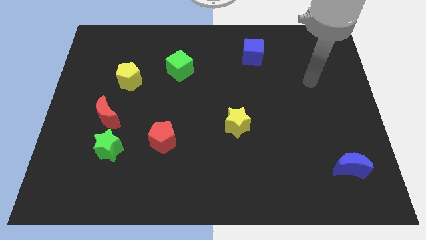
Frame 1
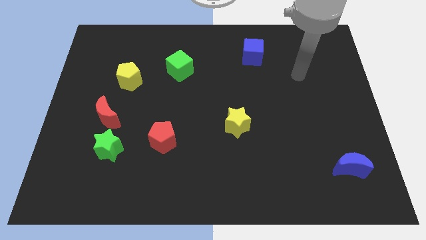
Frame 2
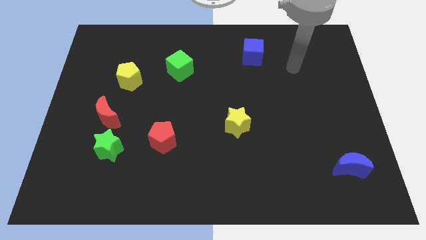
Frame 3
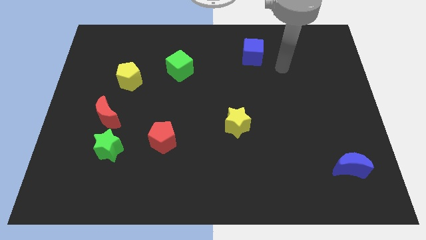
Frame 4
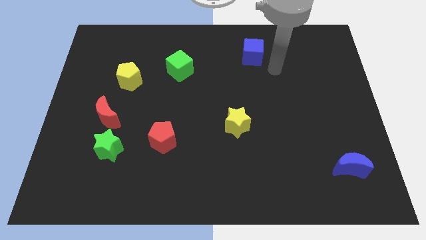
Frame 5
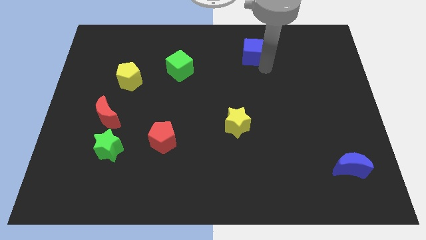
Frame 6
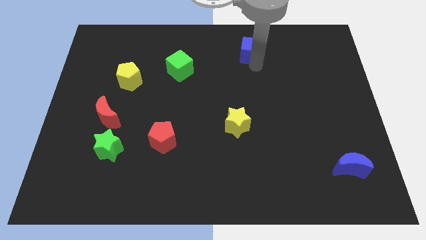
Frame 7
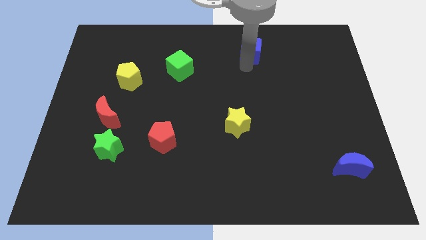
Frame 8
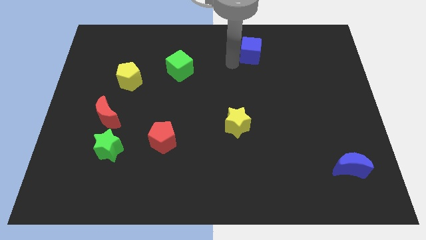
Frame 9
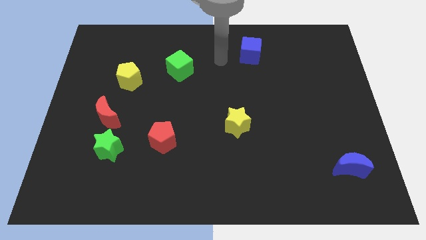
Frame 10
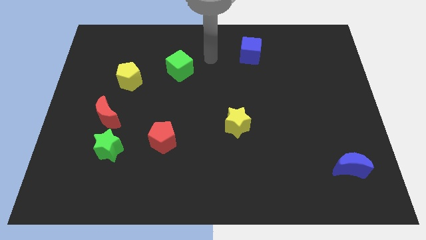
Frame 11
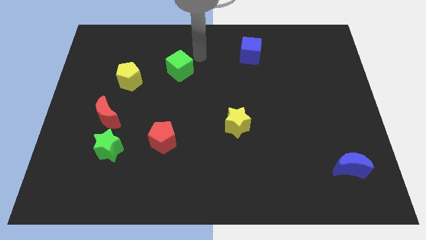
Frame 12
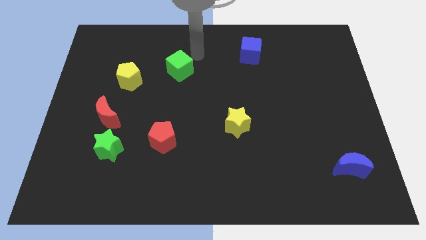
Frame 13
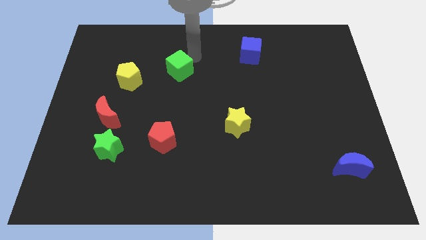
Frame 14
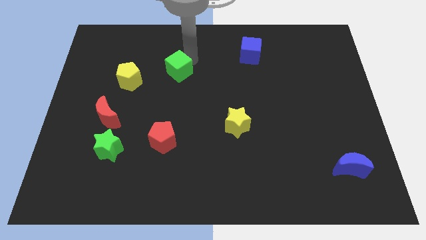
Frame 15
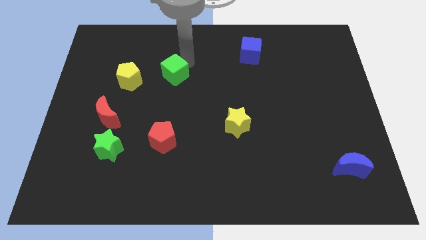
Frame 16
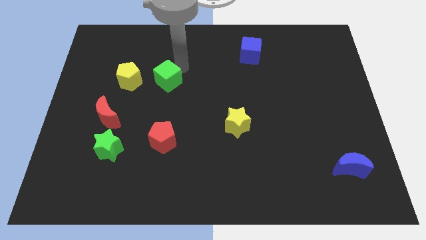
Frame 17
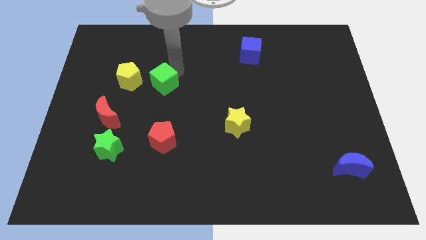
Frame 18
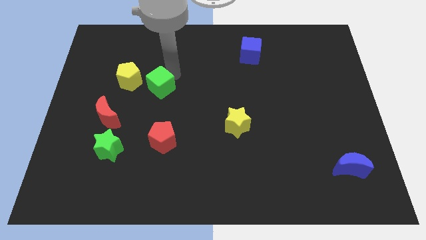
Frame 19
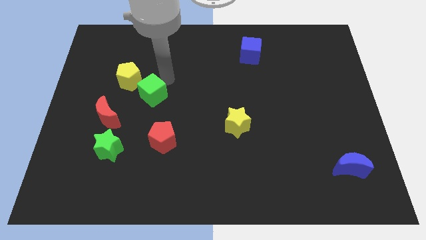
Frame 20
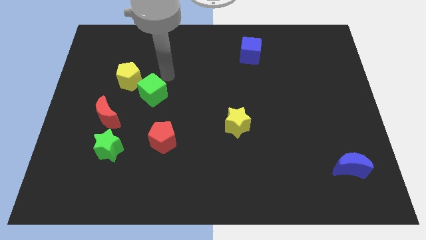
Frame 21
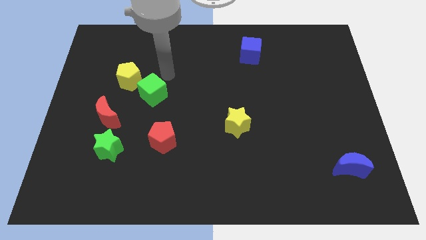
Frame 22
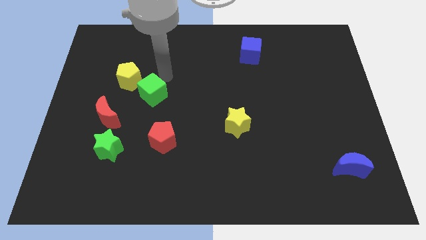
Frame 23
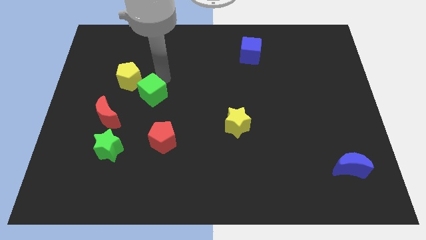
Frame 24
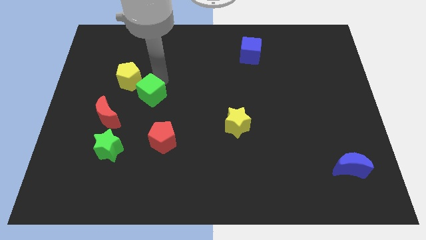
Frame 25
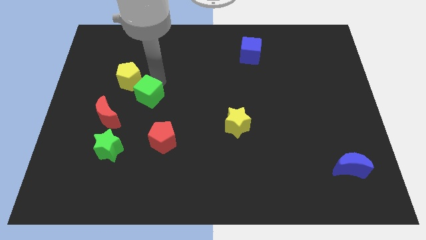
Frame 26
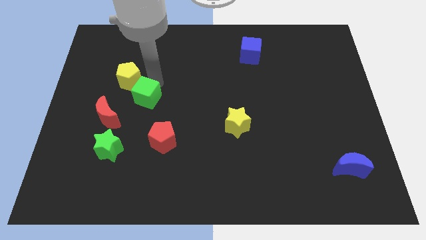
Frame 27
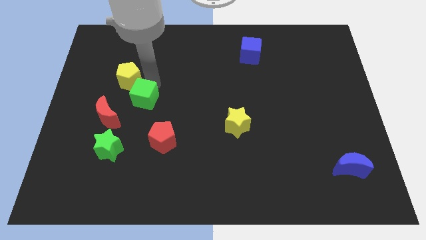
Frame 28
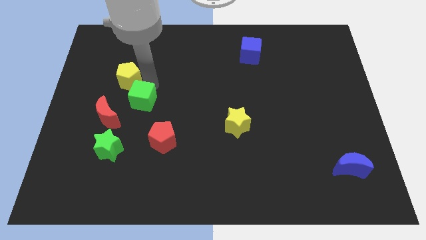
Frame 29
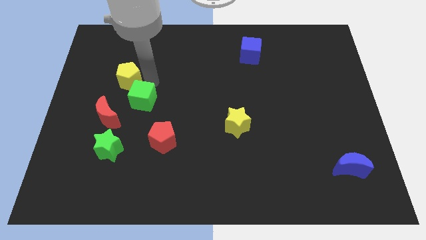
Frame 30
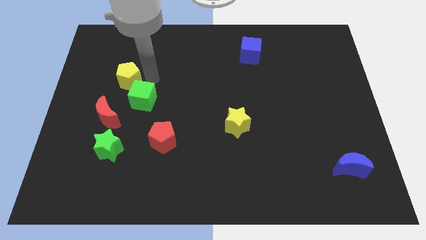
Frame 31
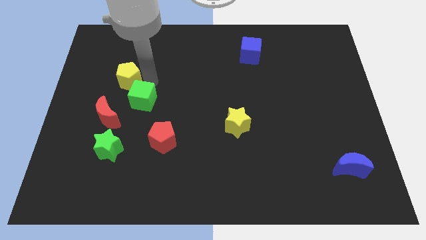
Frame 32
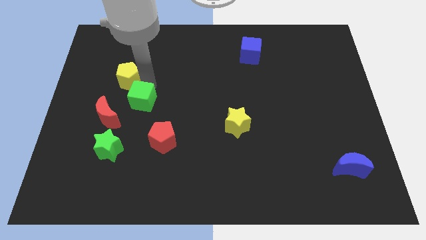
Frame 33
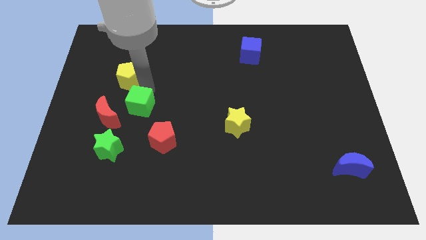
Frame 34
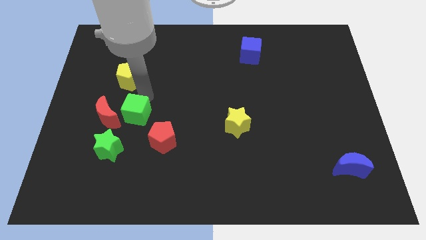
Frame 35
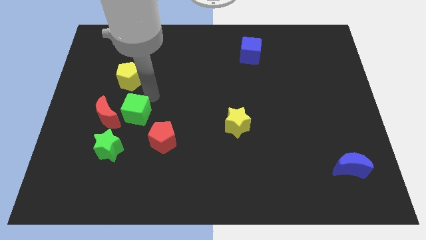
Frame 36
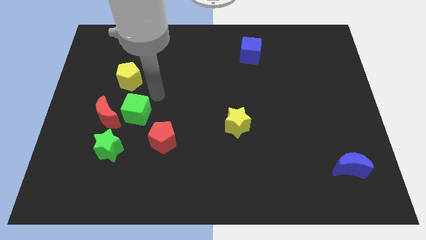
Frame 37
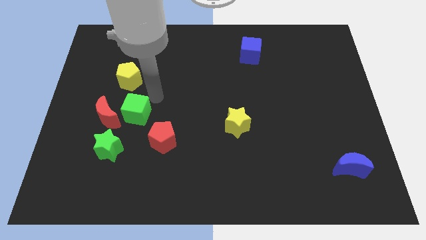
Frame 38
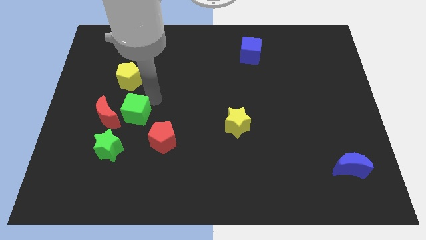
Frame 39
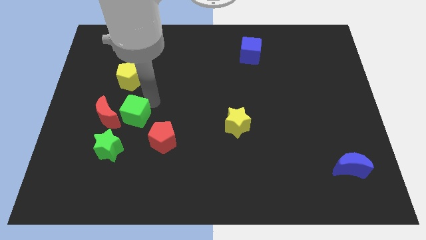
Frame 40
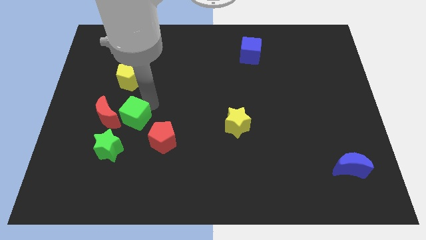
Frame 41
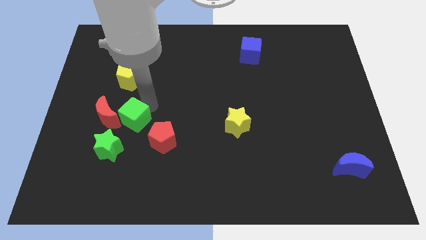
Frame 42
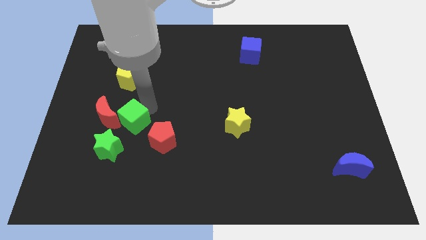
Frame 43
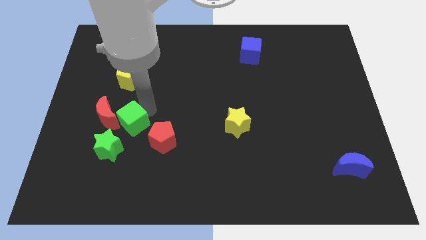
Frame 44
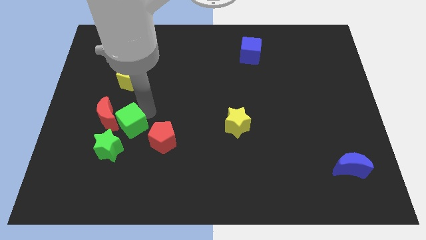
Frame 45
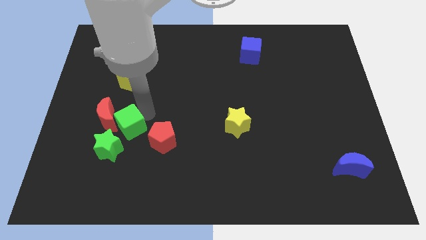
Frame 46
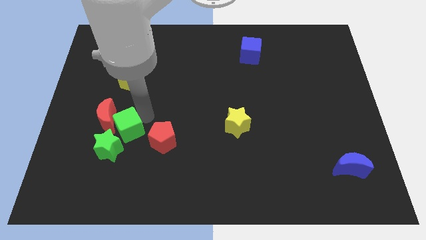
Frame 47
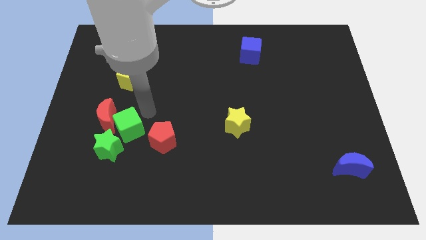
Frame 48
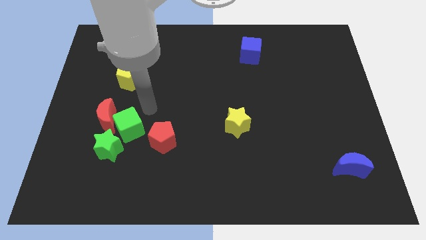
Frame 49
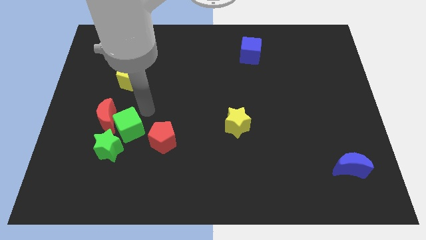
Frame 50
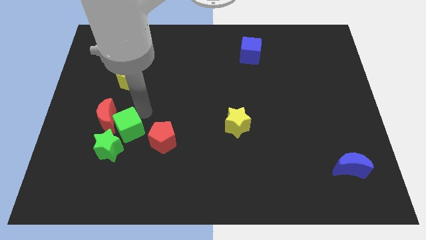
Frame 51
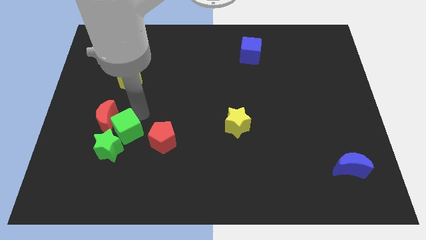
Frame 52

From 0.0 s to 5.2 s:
put the green cube to the green star

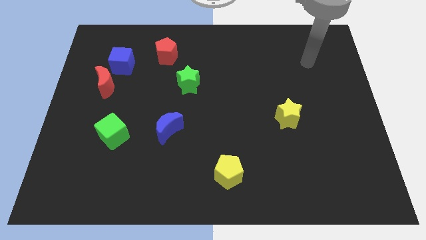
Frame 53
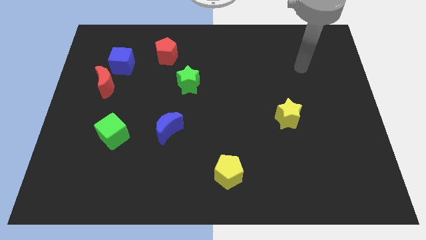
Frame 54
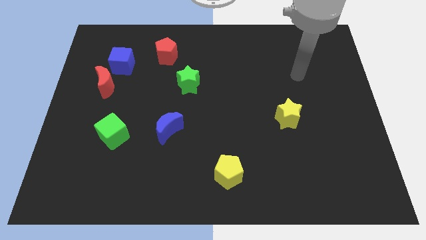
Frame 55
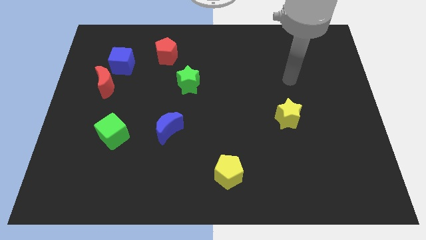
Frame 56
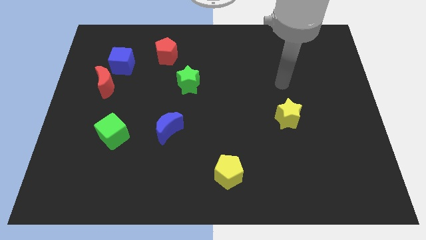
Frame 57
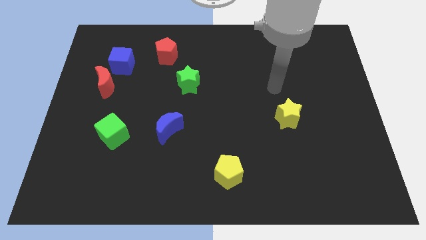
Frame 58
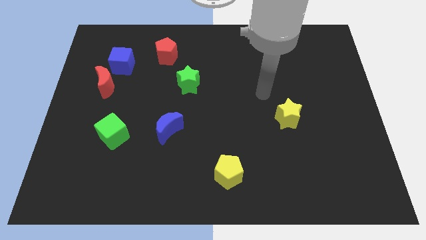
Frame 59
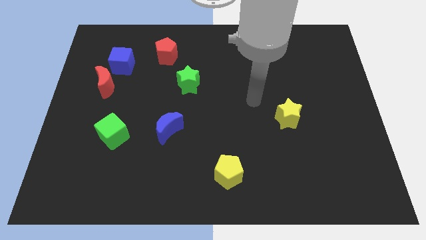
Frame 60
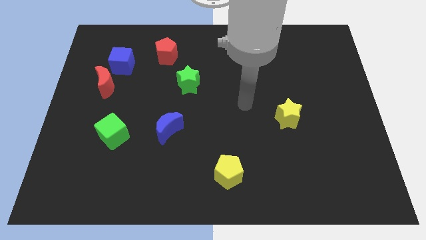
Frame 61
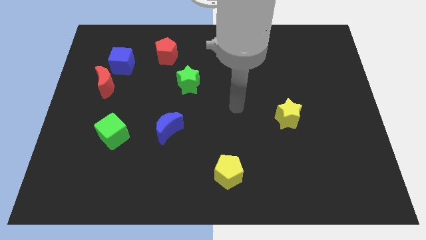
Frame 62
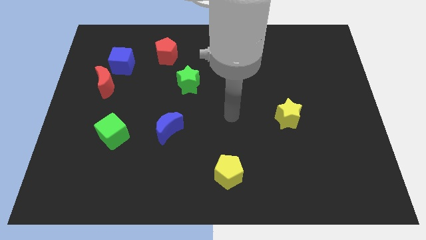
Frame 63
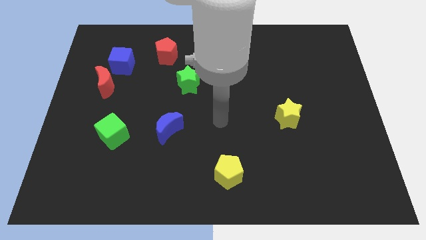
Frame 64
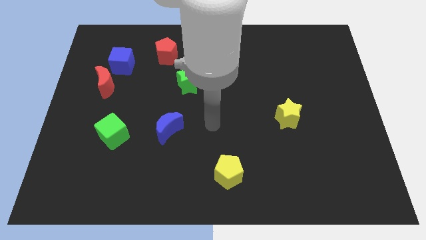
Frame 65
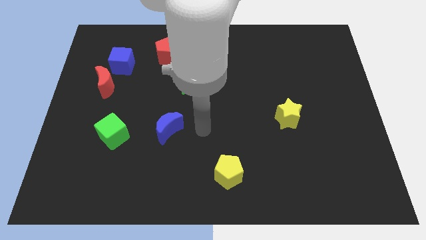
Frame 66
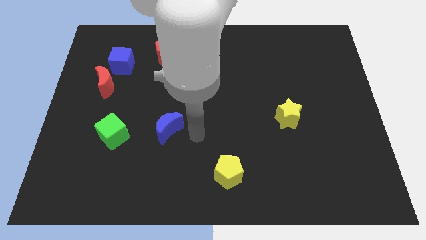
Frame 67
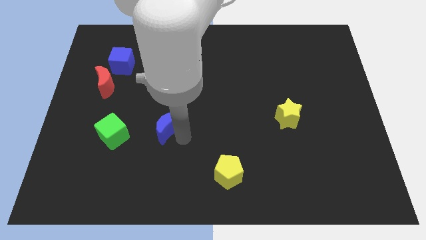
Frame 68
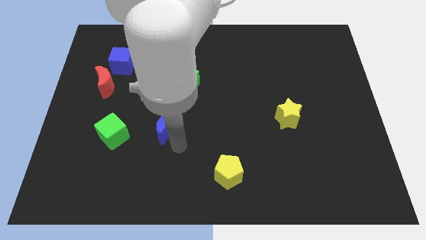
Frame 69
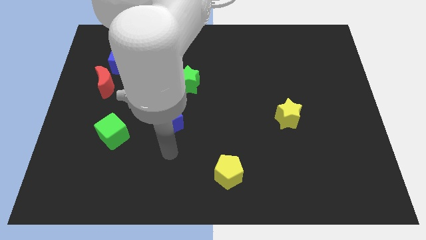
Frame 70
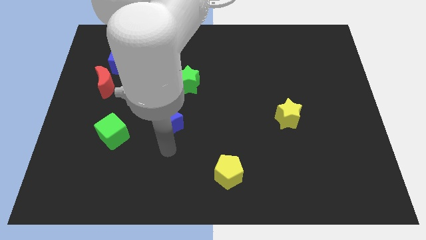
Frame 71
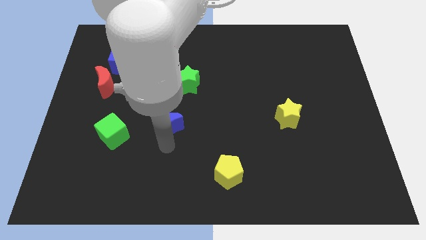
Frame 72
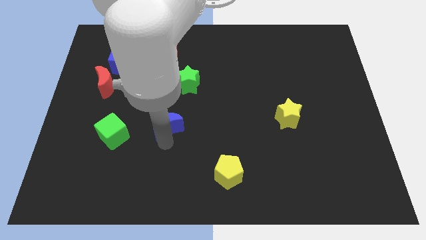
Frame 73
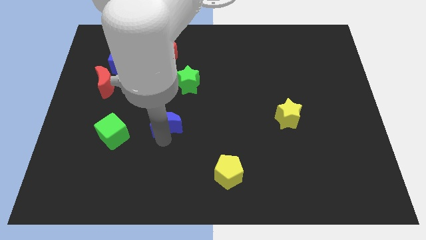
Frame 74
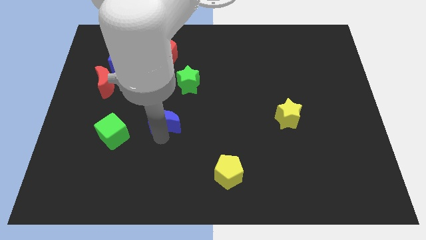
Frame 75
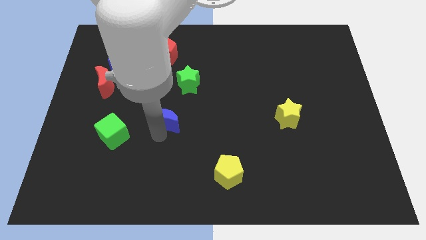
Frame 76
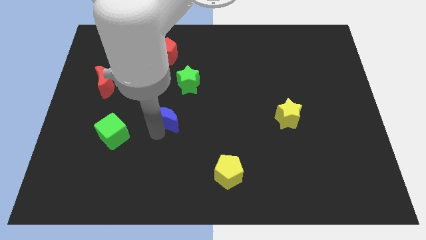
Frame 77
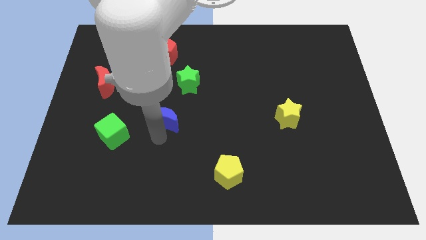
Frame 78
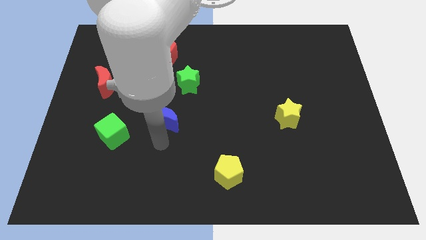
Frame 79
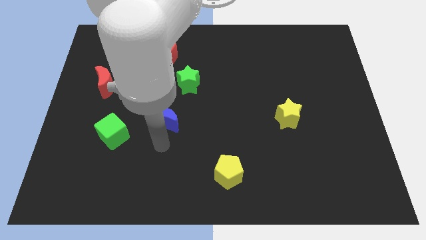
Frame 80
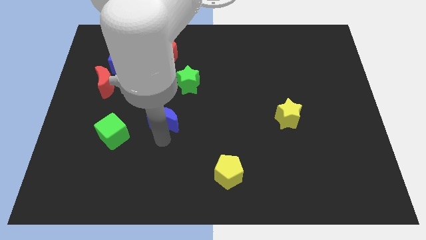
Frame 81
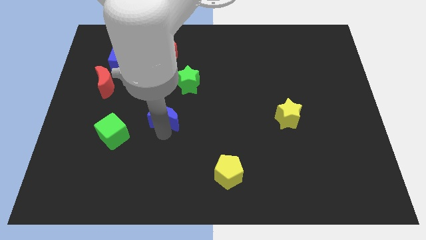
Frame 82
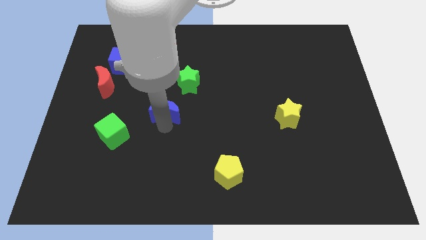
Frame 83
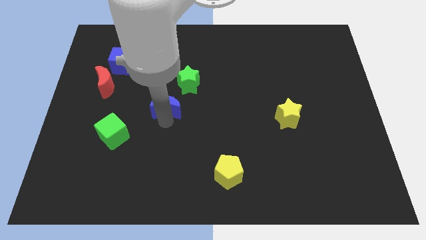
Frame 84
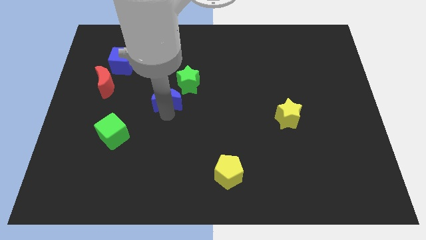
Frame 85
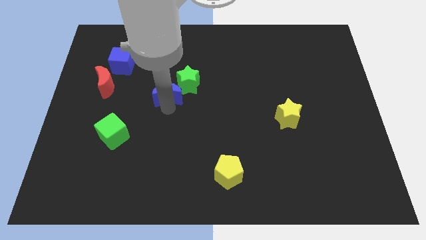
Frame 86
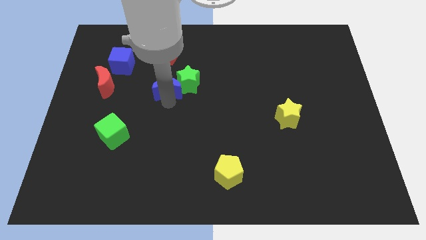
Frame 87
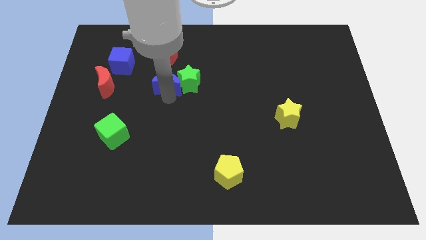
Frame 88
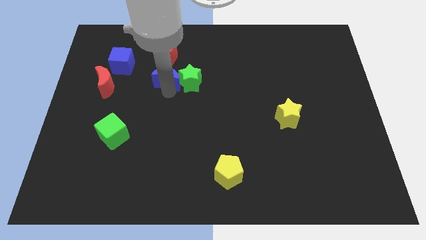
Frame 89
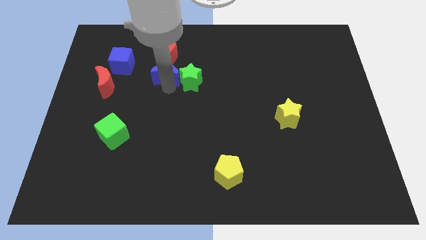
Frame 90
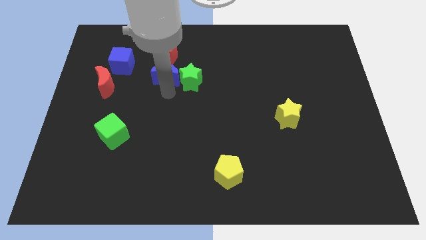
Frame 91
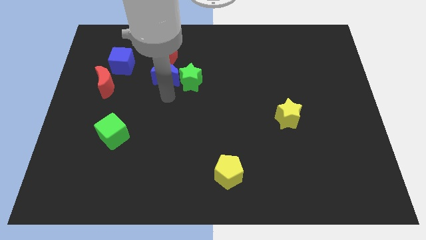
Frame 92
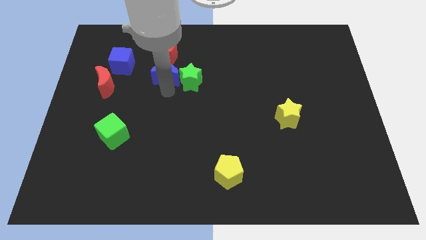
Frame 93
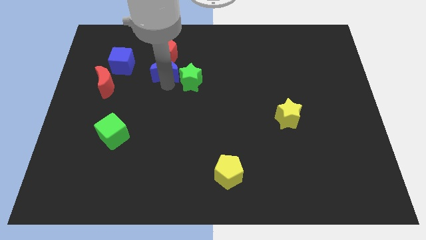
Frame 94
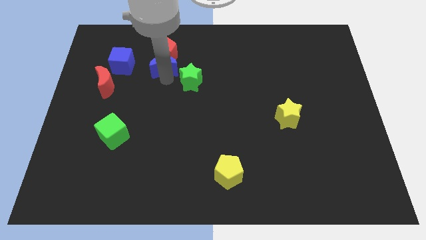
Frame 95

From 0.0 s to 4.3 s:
move the blue moon towards the red pentagon
